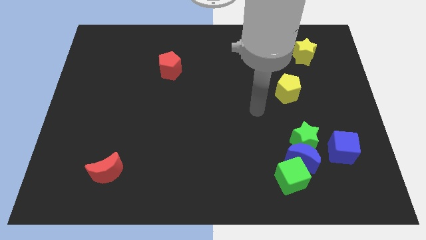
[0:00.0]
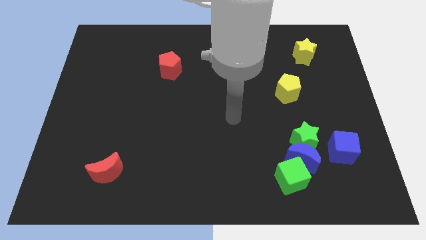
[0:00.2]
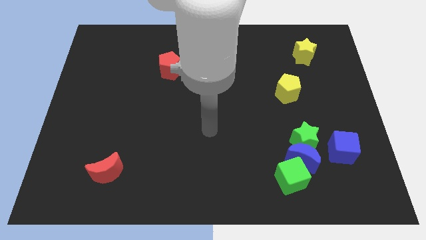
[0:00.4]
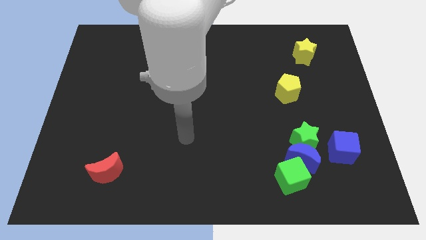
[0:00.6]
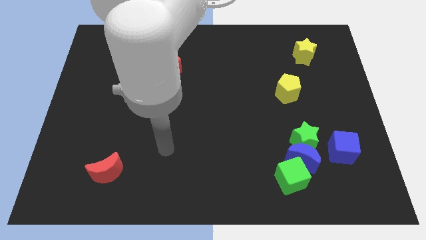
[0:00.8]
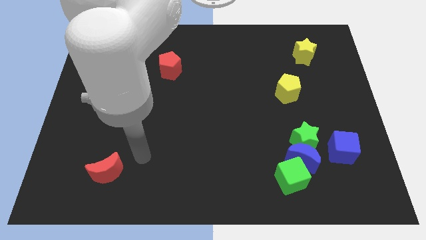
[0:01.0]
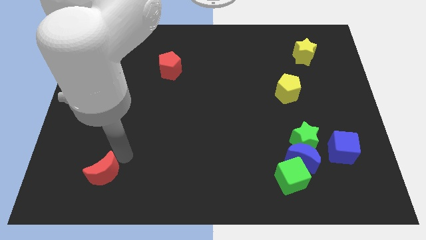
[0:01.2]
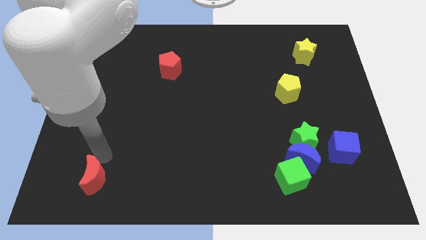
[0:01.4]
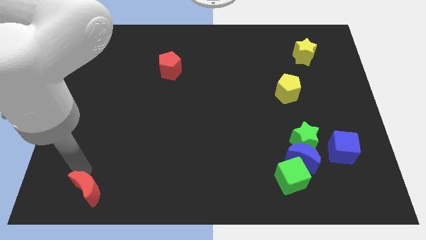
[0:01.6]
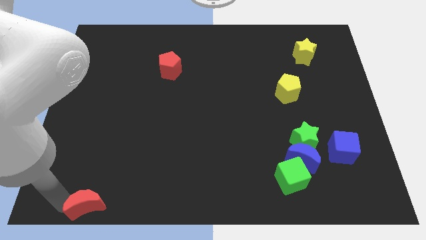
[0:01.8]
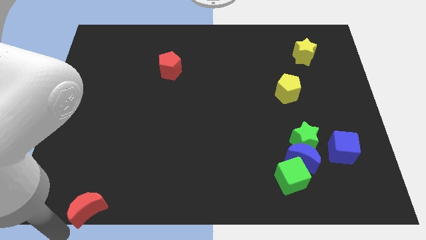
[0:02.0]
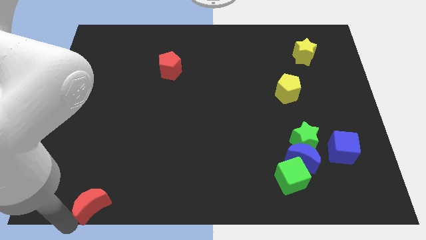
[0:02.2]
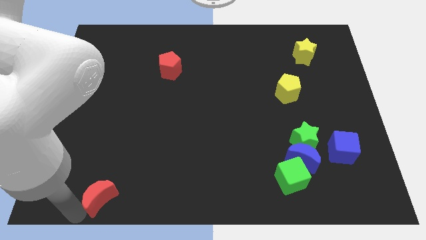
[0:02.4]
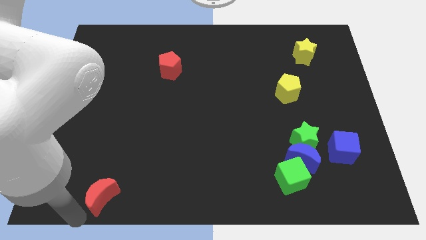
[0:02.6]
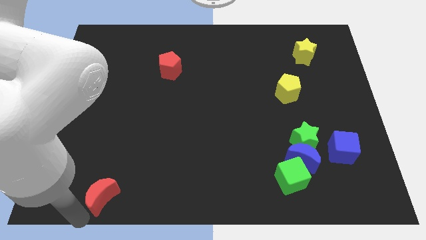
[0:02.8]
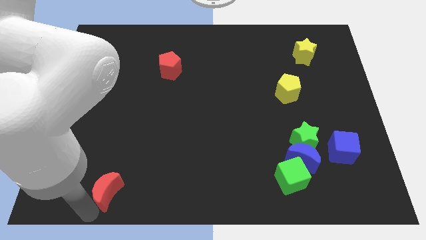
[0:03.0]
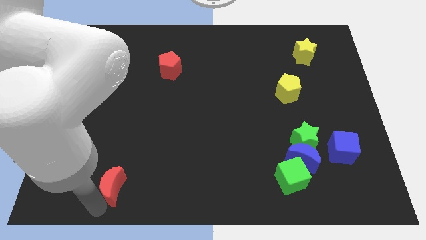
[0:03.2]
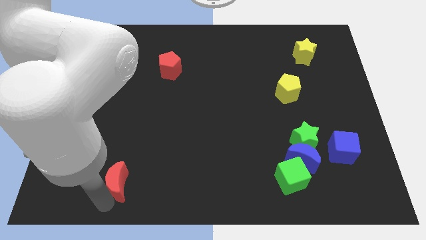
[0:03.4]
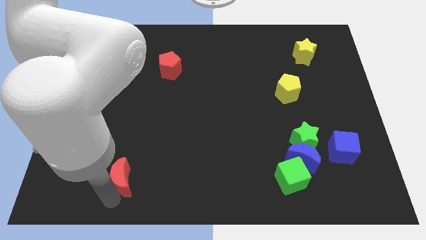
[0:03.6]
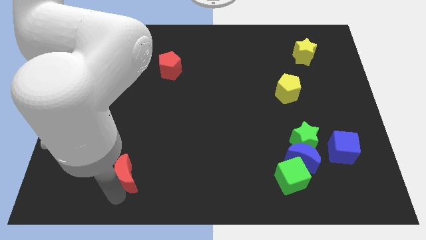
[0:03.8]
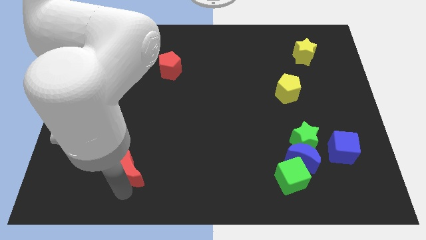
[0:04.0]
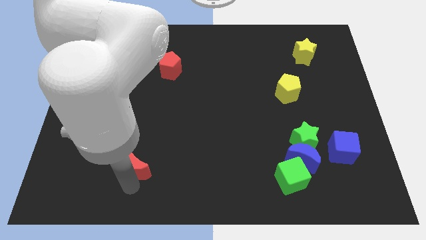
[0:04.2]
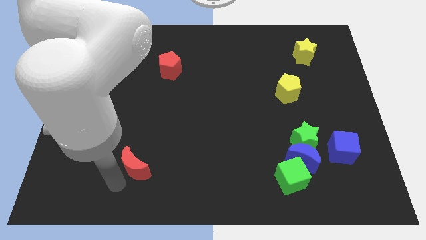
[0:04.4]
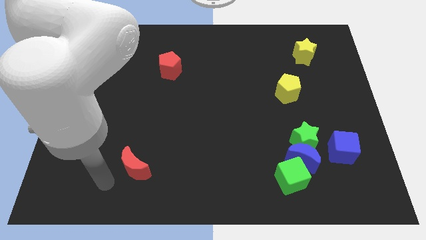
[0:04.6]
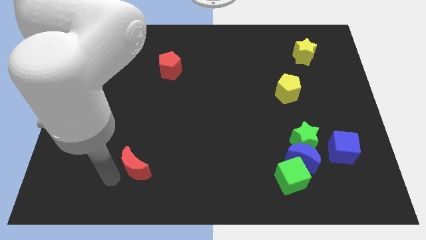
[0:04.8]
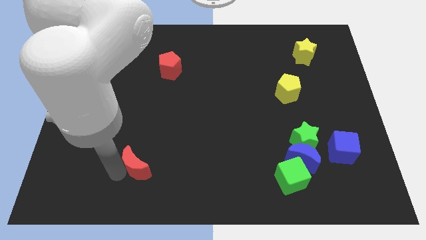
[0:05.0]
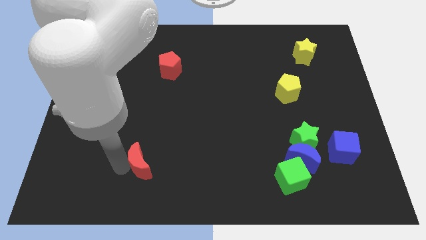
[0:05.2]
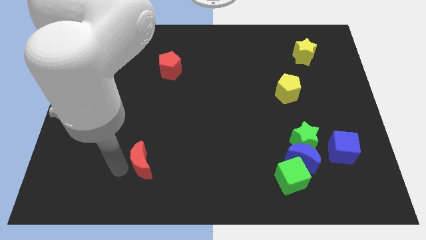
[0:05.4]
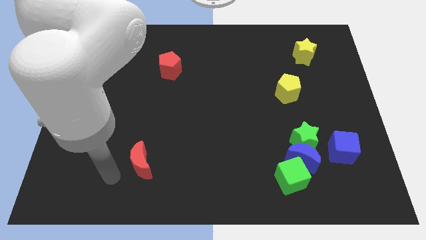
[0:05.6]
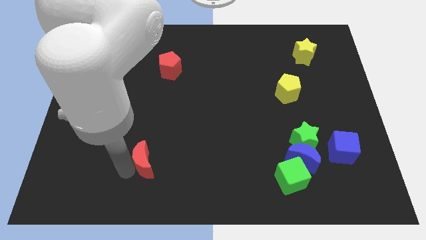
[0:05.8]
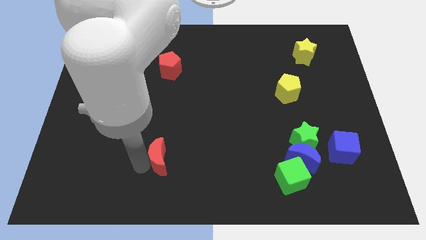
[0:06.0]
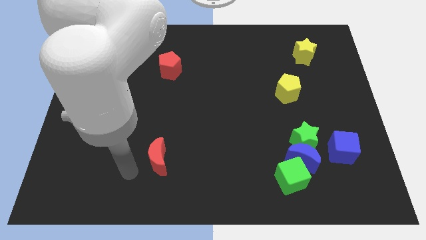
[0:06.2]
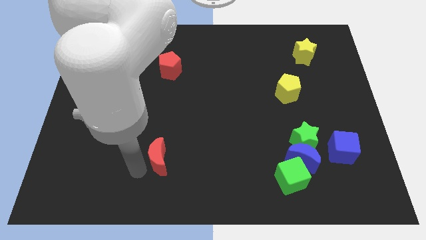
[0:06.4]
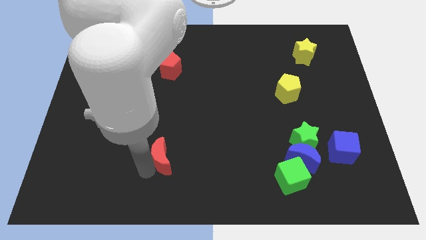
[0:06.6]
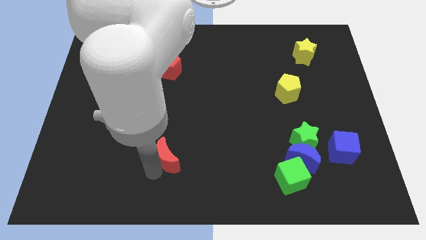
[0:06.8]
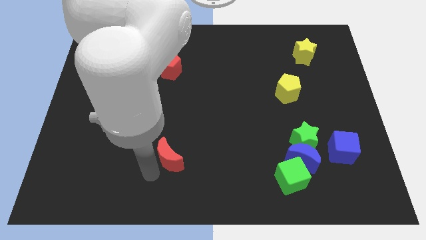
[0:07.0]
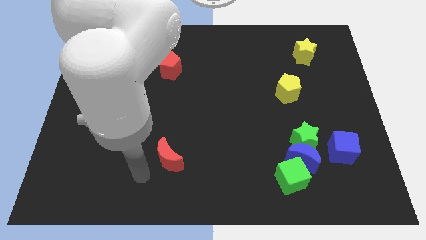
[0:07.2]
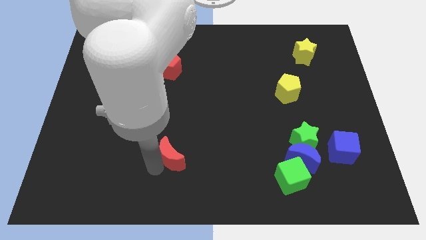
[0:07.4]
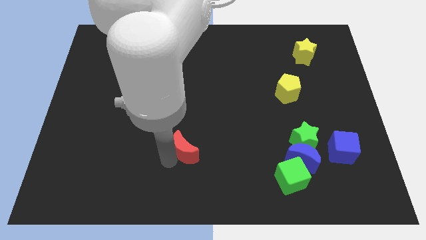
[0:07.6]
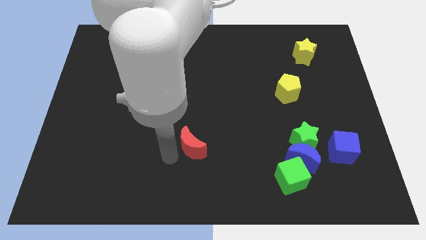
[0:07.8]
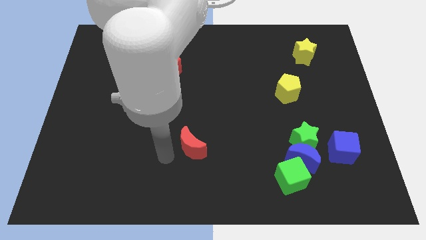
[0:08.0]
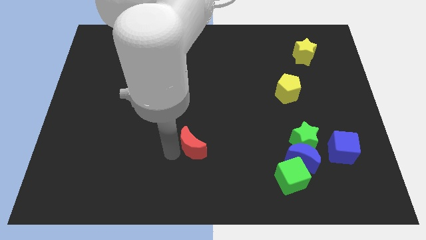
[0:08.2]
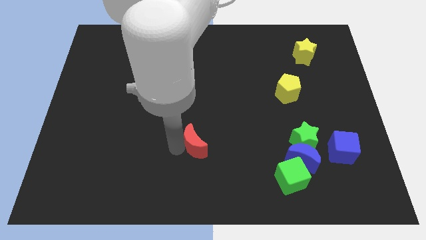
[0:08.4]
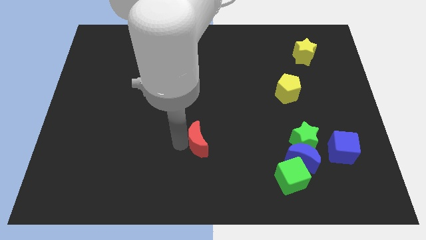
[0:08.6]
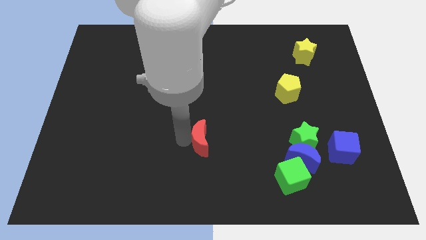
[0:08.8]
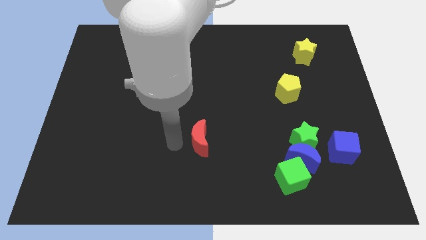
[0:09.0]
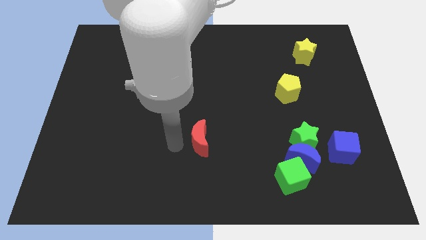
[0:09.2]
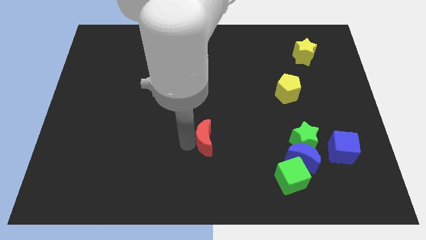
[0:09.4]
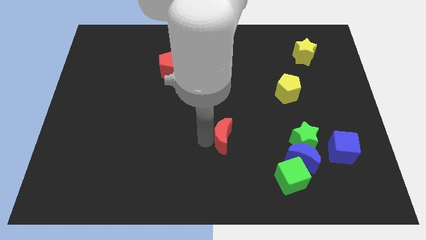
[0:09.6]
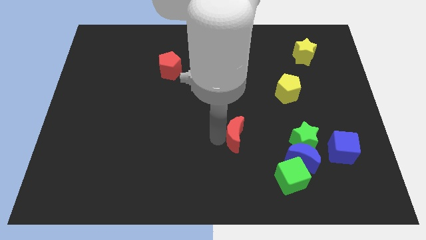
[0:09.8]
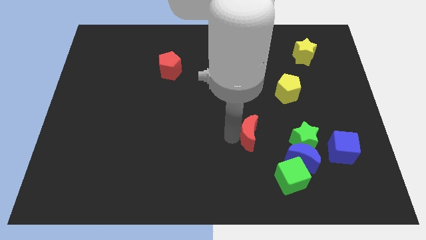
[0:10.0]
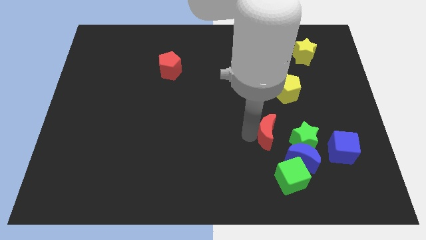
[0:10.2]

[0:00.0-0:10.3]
put the red moon above the green cube

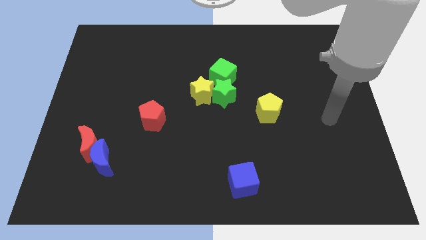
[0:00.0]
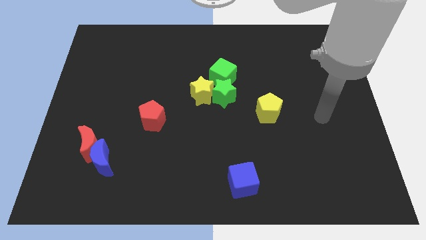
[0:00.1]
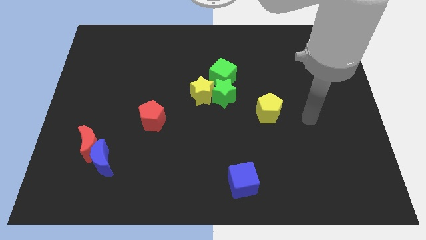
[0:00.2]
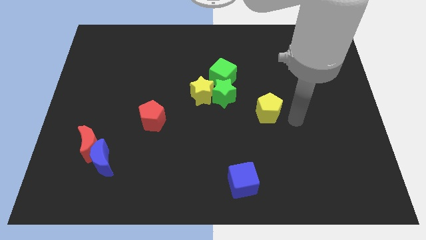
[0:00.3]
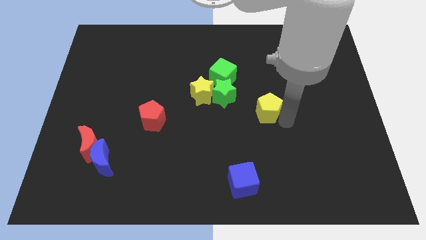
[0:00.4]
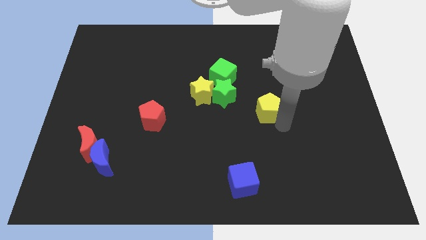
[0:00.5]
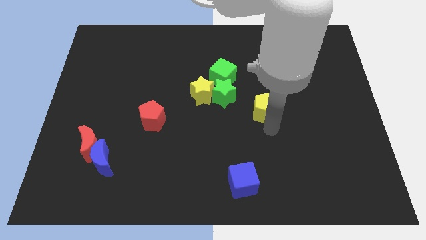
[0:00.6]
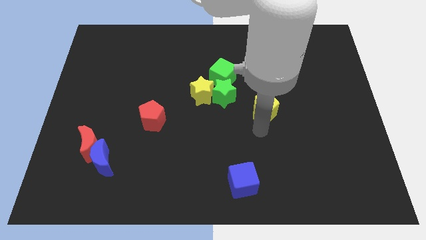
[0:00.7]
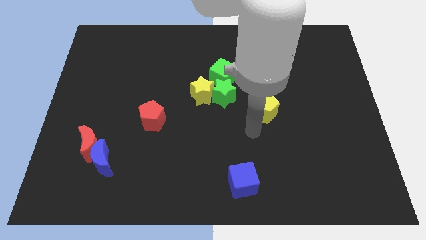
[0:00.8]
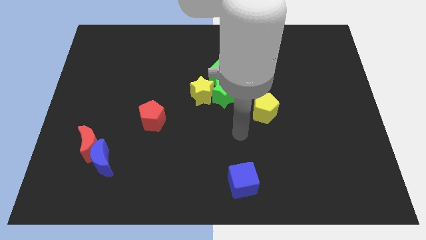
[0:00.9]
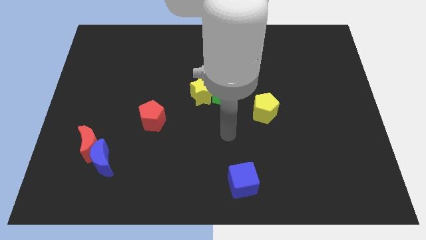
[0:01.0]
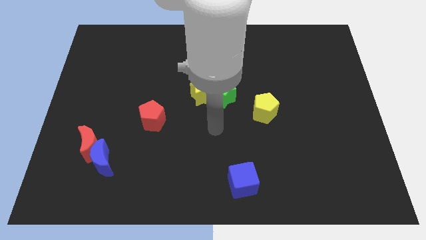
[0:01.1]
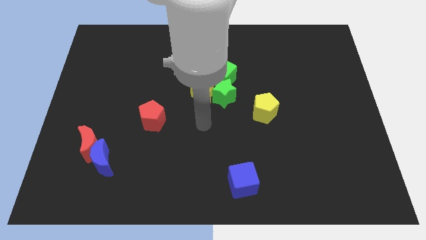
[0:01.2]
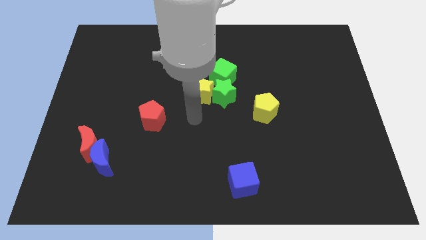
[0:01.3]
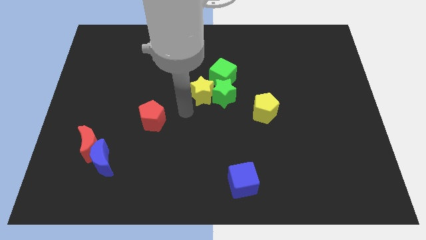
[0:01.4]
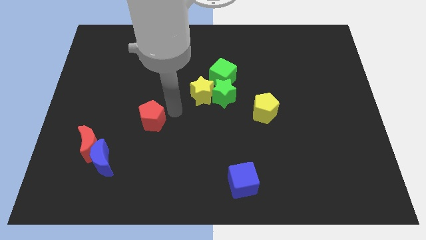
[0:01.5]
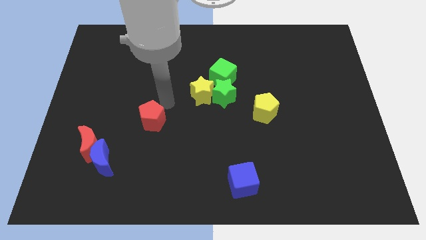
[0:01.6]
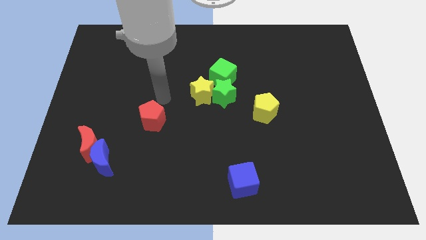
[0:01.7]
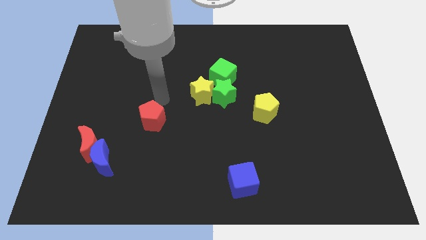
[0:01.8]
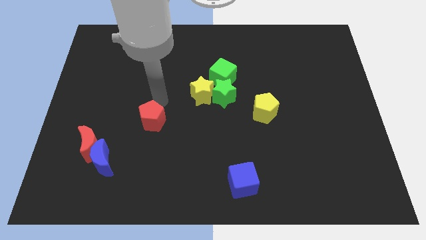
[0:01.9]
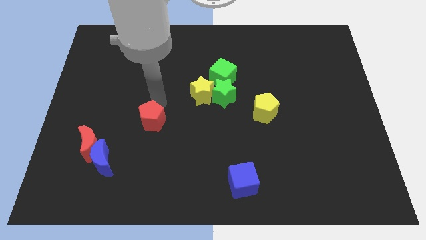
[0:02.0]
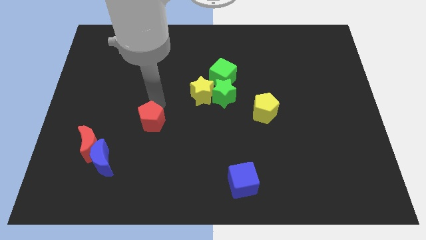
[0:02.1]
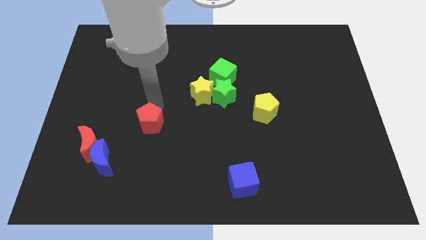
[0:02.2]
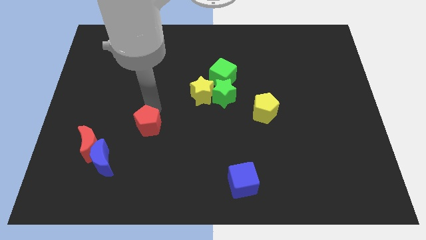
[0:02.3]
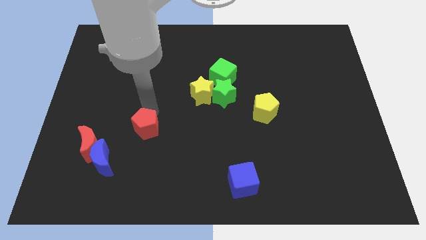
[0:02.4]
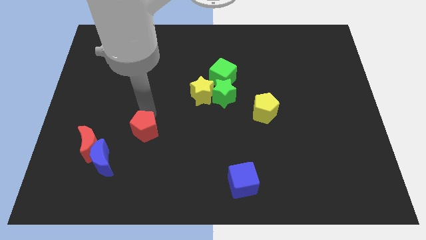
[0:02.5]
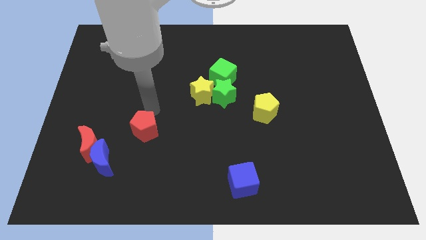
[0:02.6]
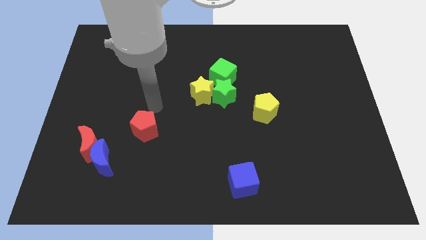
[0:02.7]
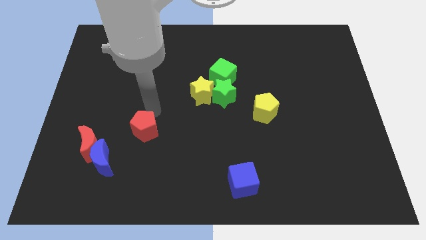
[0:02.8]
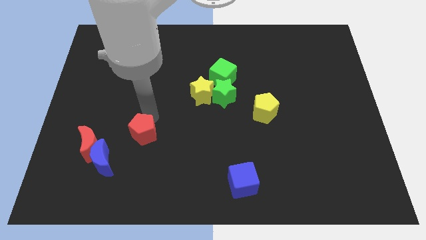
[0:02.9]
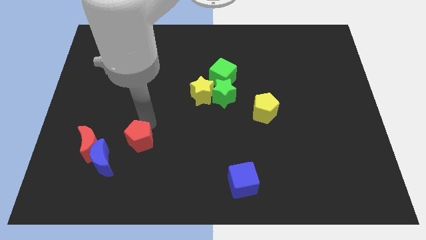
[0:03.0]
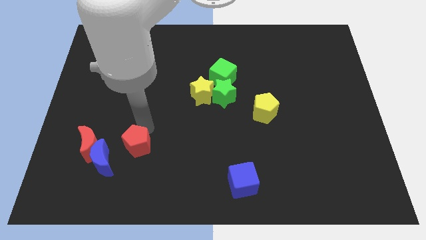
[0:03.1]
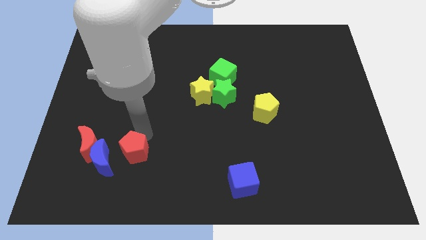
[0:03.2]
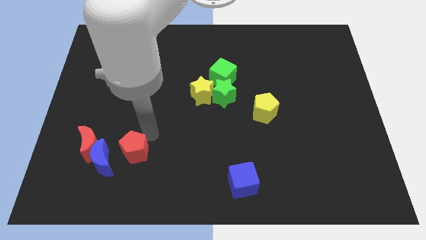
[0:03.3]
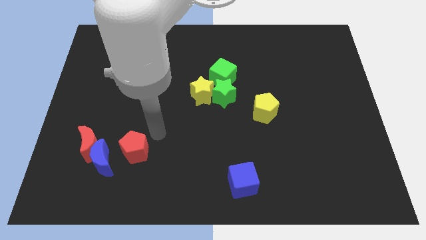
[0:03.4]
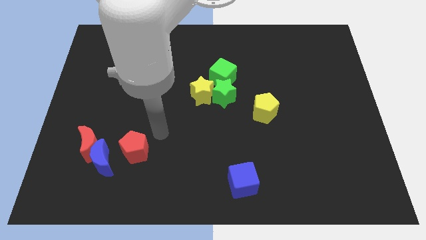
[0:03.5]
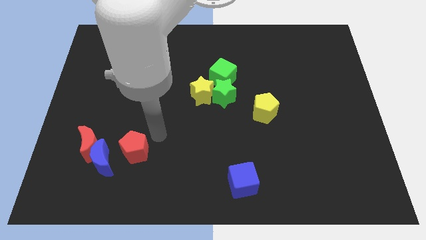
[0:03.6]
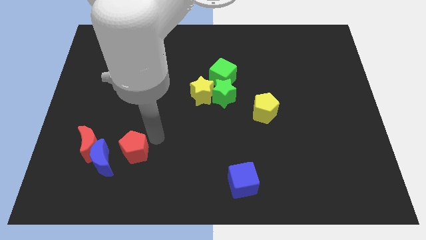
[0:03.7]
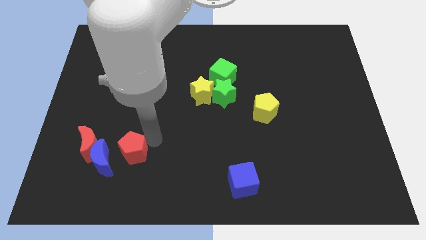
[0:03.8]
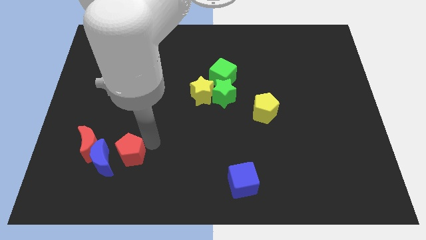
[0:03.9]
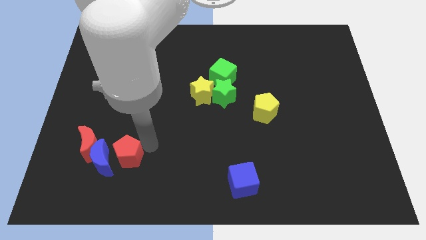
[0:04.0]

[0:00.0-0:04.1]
push the red pentagon to the bottom right side of the red moon
